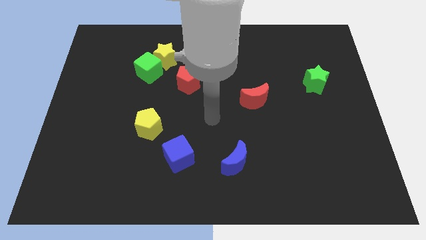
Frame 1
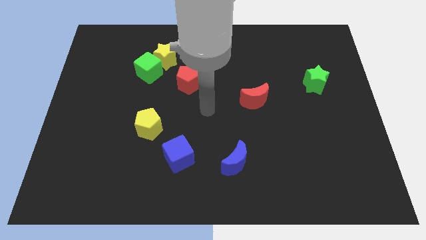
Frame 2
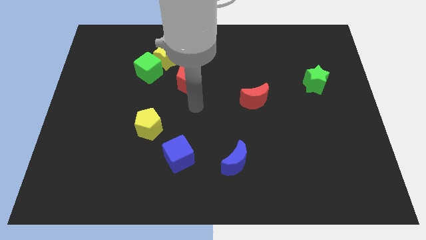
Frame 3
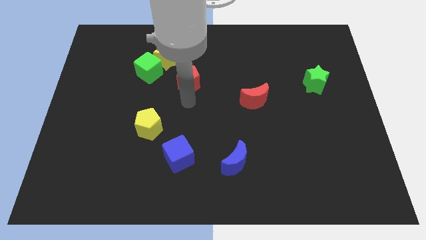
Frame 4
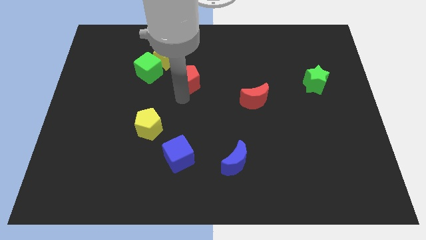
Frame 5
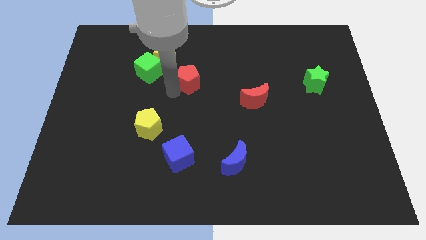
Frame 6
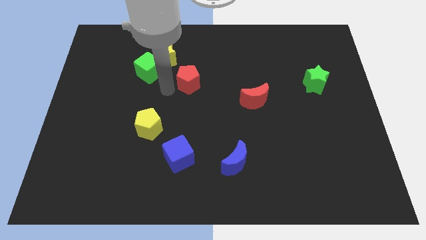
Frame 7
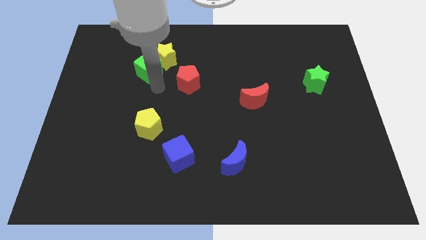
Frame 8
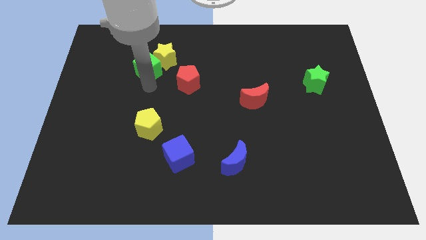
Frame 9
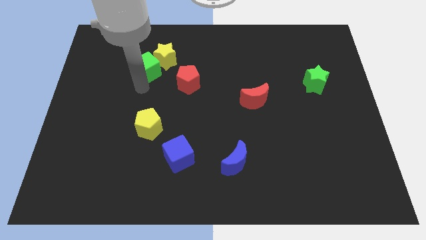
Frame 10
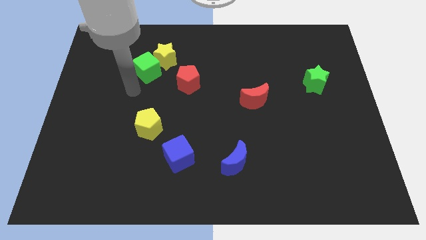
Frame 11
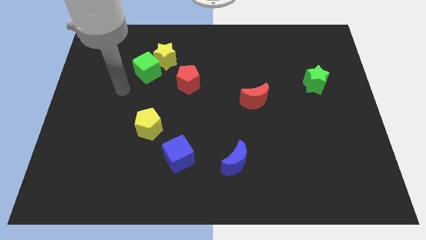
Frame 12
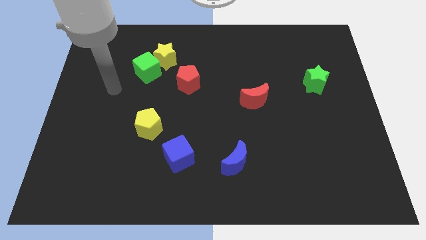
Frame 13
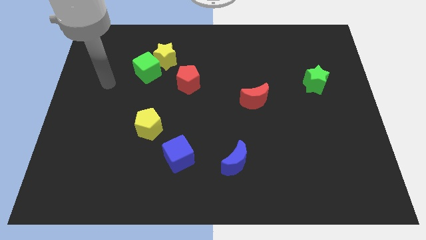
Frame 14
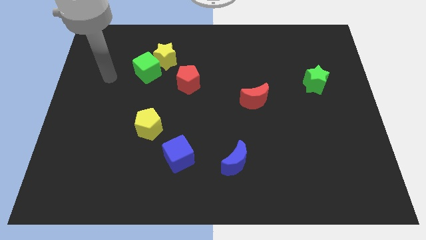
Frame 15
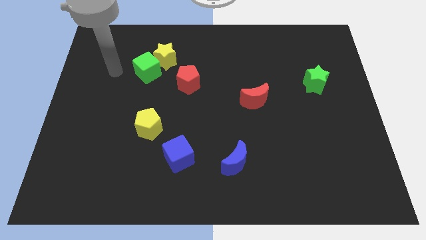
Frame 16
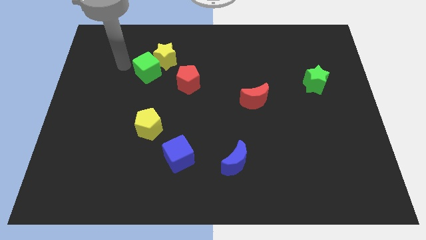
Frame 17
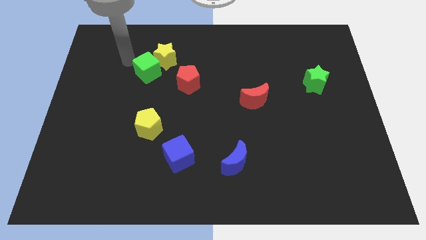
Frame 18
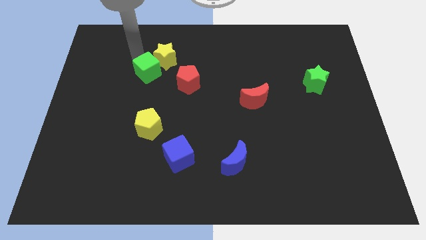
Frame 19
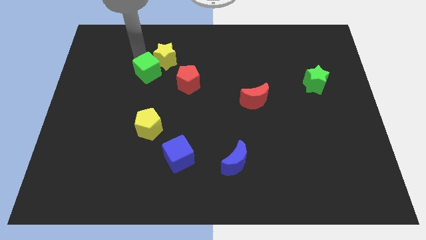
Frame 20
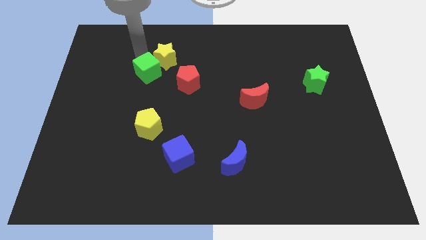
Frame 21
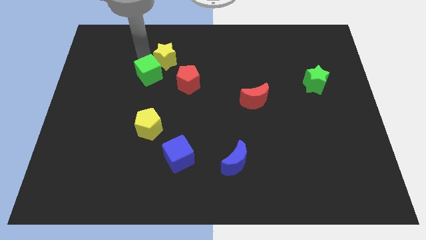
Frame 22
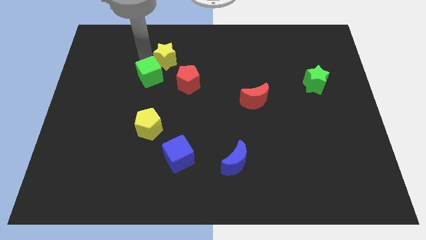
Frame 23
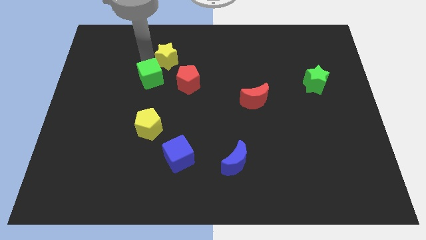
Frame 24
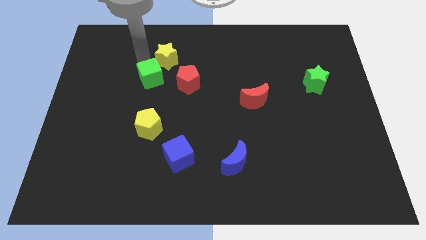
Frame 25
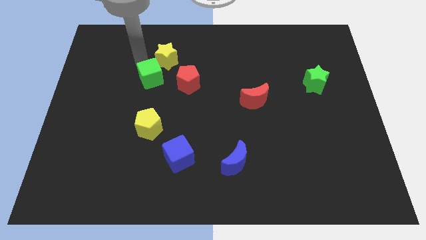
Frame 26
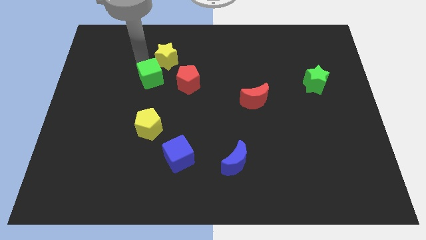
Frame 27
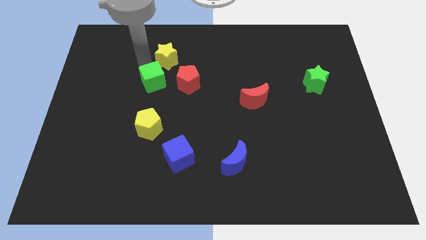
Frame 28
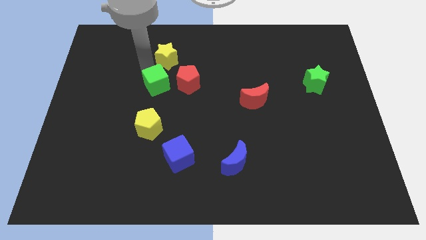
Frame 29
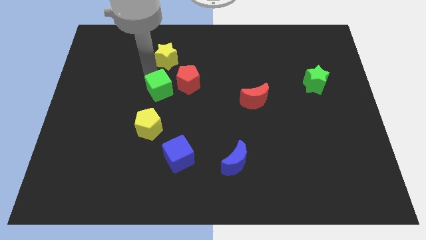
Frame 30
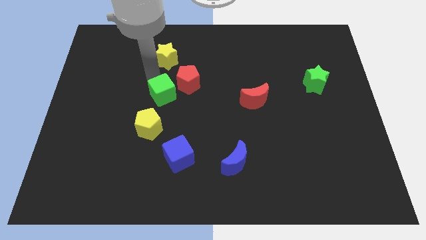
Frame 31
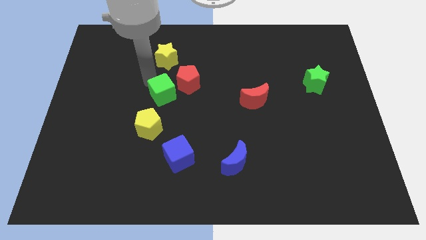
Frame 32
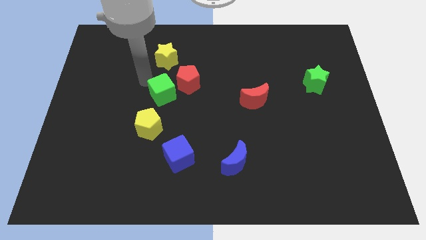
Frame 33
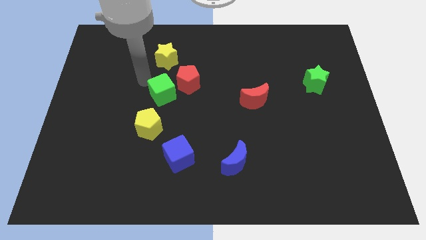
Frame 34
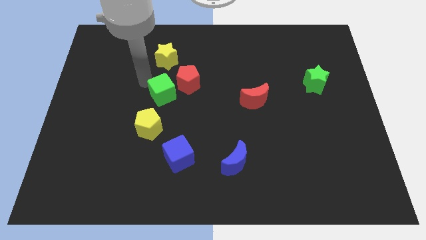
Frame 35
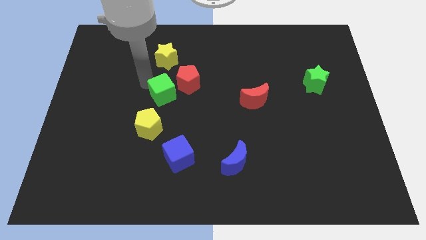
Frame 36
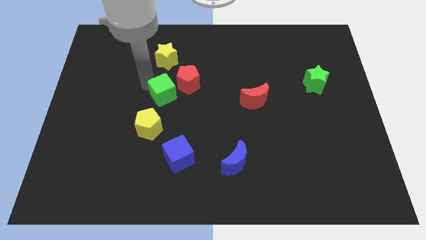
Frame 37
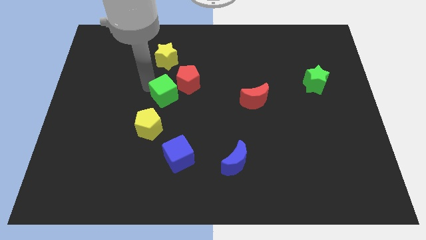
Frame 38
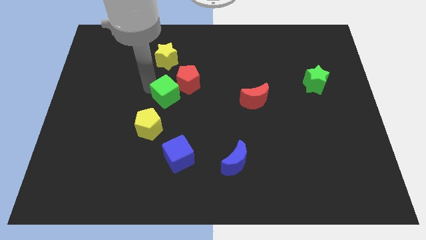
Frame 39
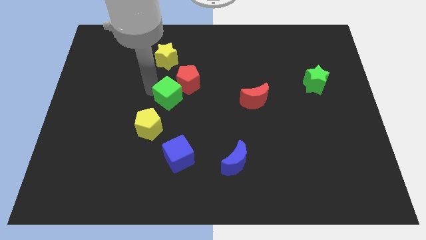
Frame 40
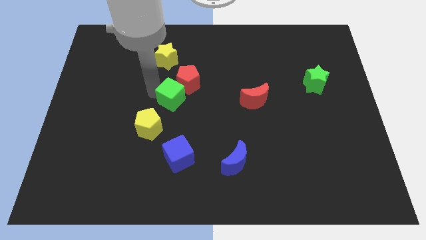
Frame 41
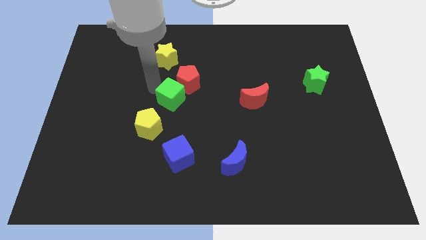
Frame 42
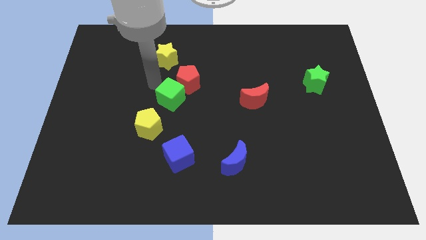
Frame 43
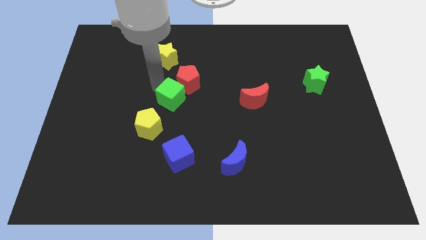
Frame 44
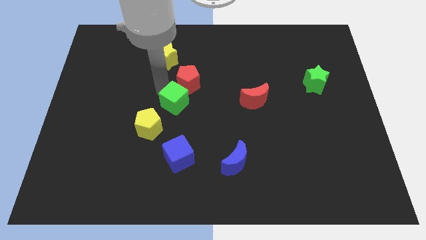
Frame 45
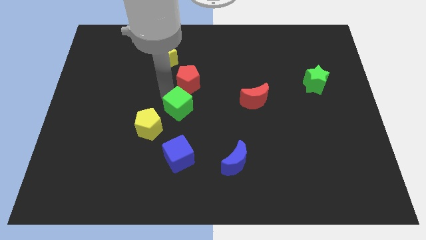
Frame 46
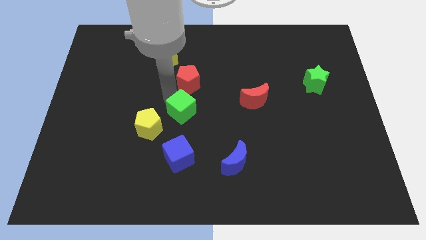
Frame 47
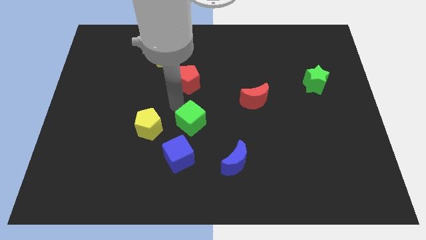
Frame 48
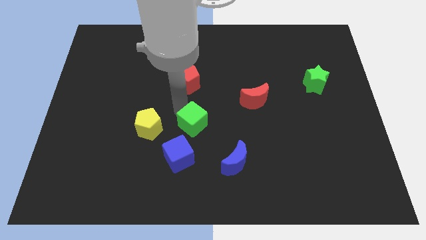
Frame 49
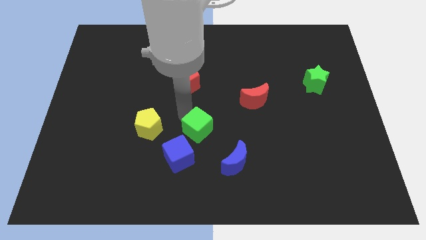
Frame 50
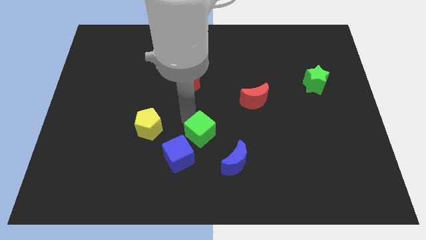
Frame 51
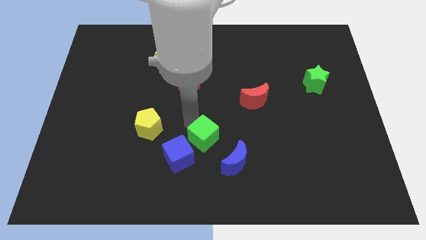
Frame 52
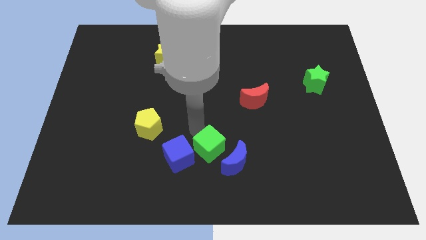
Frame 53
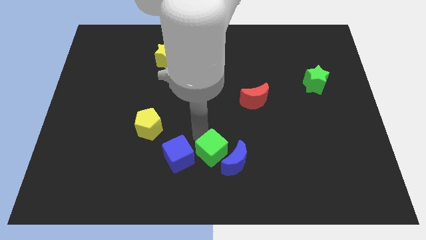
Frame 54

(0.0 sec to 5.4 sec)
slide the green cube towards the blue moon

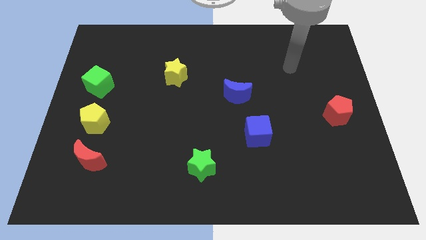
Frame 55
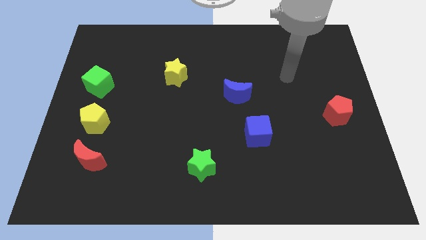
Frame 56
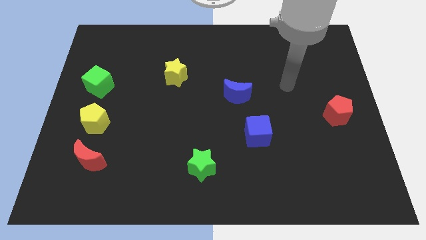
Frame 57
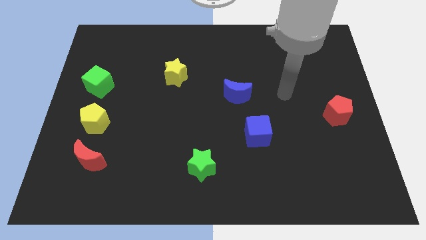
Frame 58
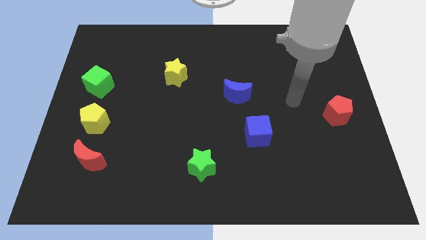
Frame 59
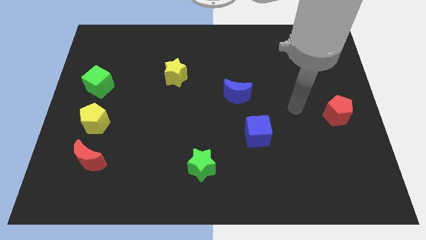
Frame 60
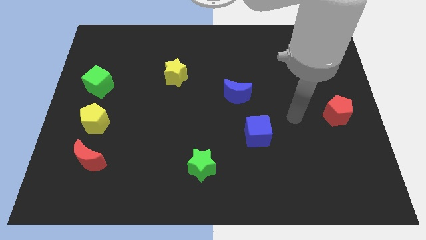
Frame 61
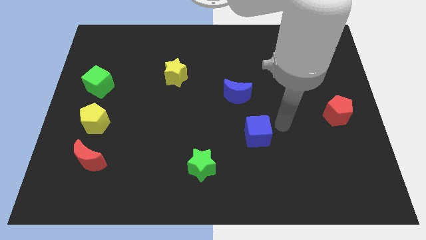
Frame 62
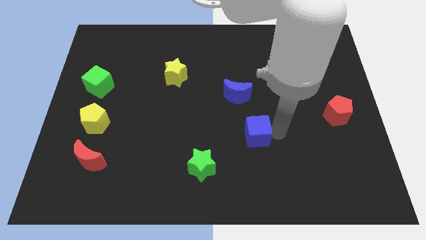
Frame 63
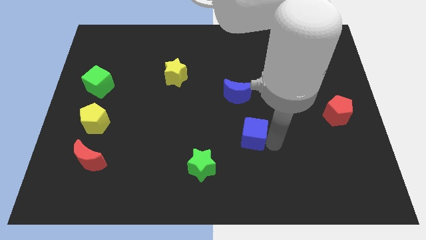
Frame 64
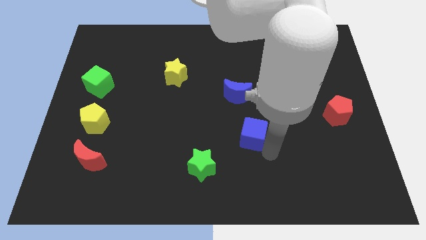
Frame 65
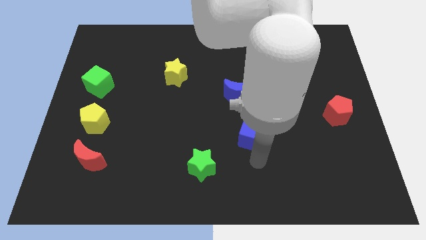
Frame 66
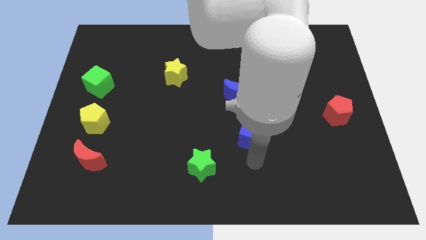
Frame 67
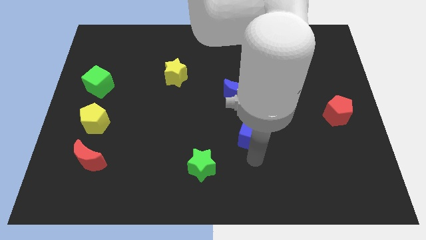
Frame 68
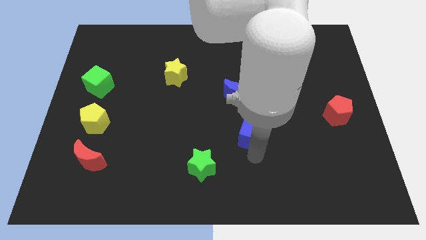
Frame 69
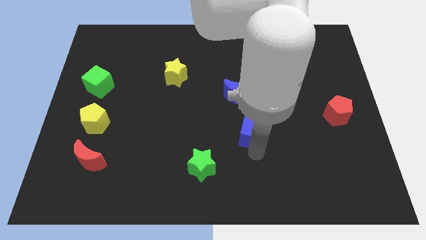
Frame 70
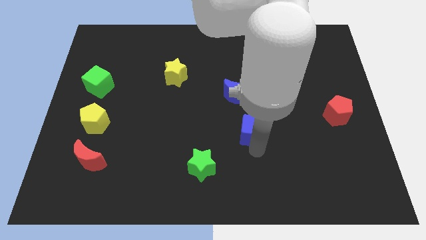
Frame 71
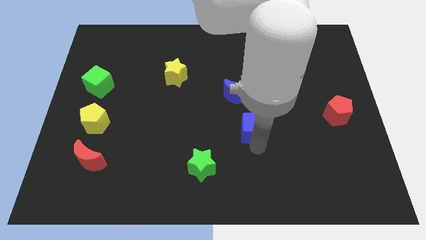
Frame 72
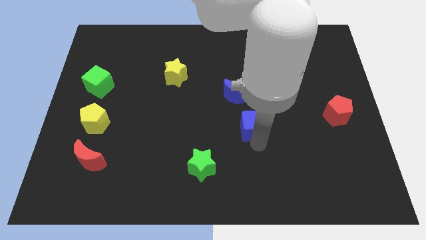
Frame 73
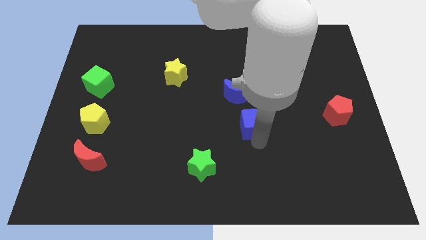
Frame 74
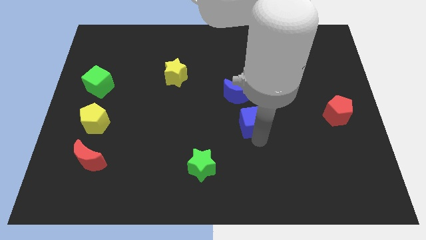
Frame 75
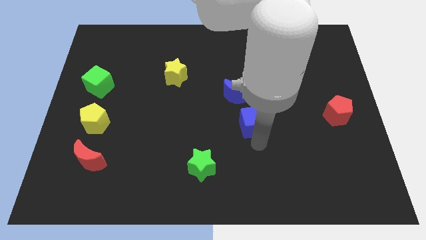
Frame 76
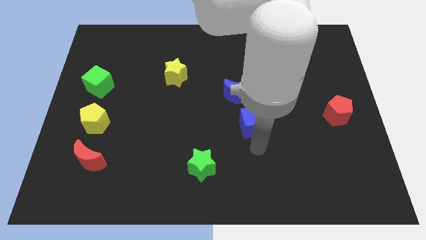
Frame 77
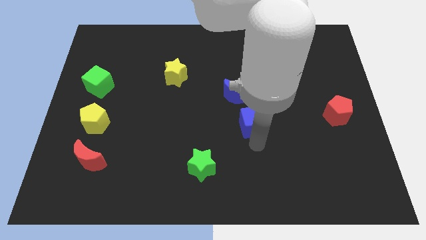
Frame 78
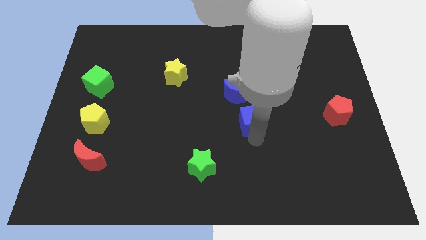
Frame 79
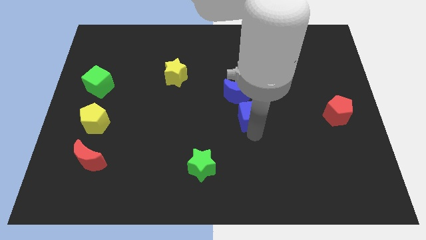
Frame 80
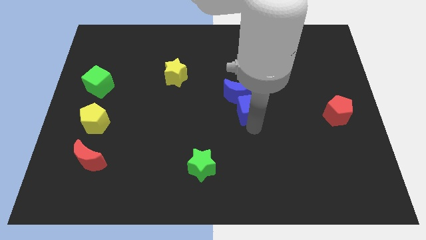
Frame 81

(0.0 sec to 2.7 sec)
move the blue cube close to the blue moon
